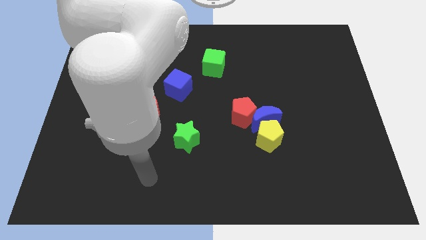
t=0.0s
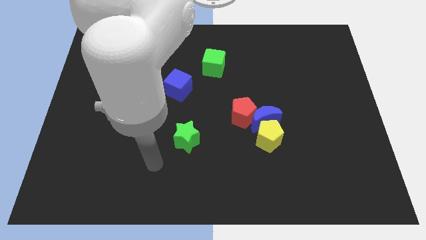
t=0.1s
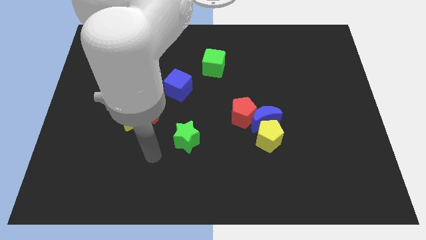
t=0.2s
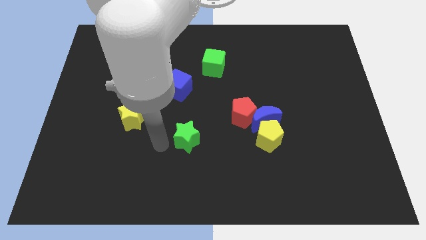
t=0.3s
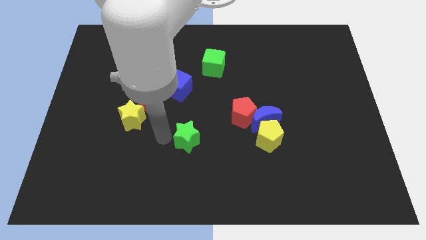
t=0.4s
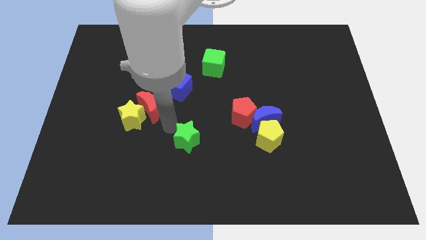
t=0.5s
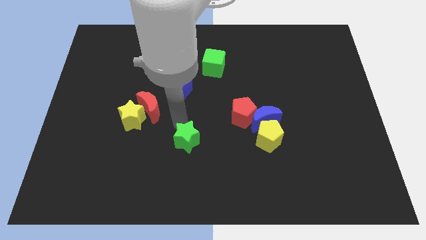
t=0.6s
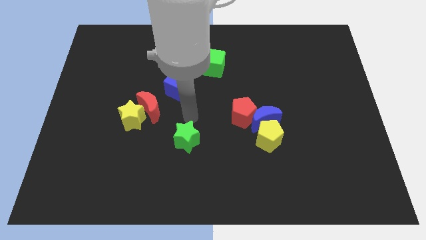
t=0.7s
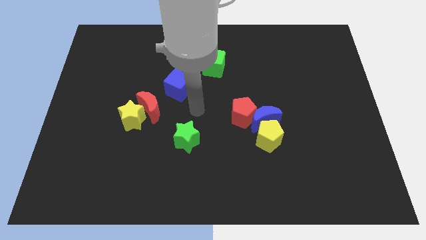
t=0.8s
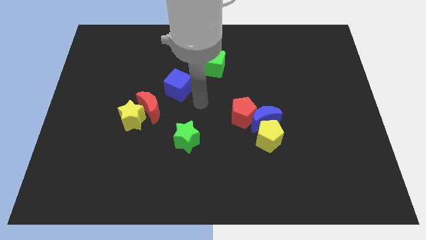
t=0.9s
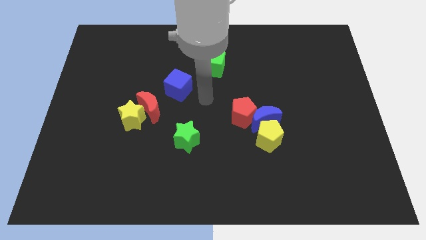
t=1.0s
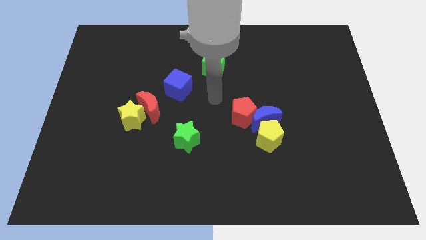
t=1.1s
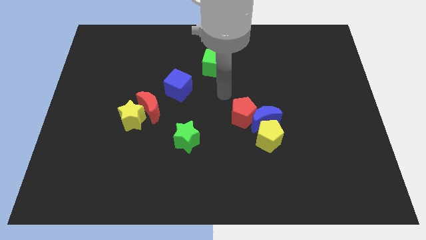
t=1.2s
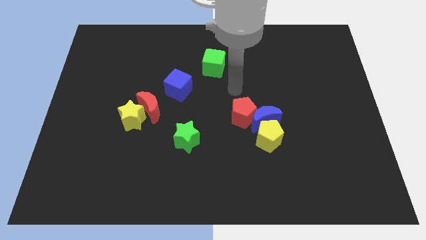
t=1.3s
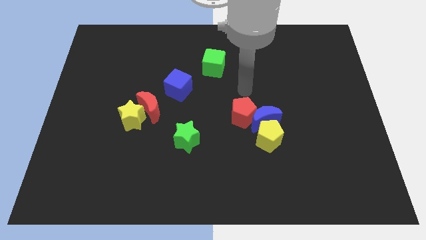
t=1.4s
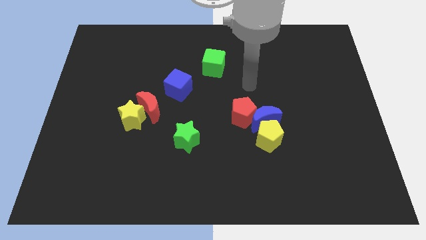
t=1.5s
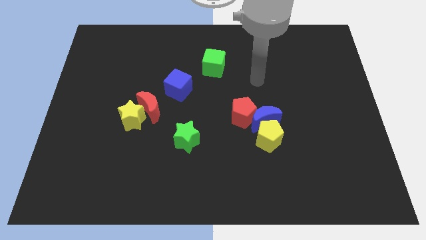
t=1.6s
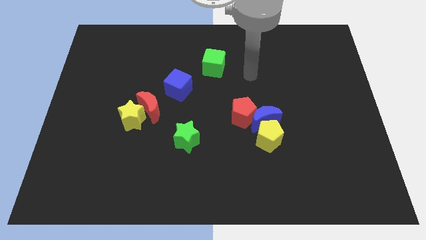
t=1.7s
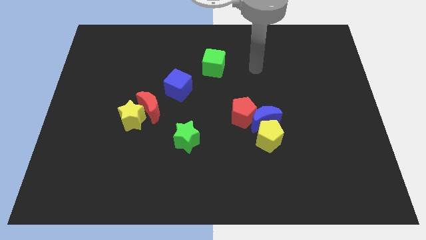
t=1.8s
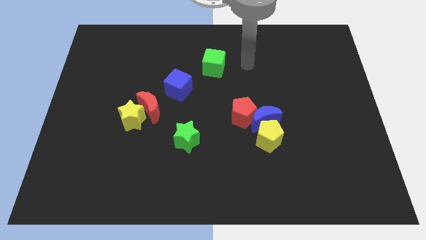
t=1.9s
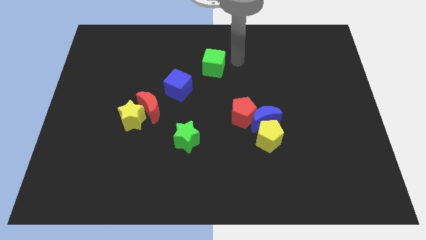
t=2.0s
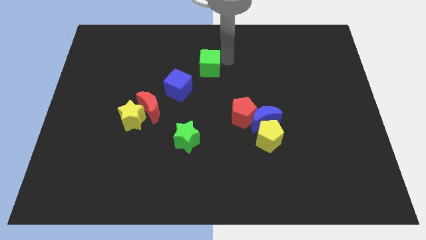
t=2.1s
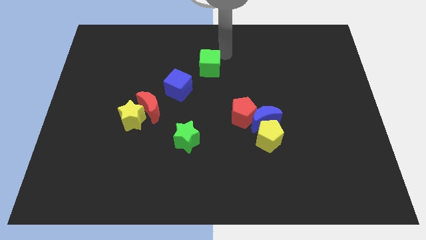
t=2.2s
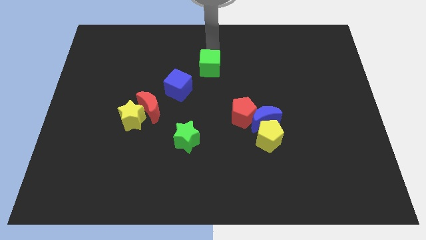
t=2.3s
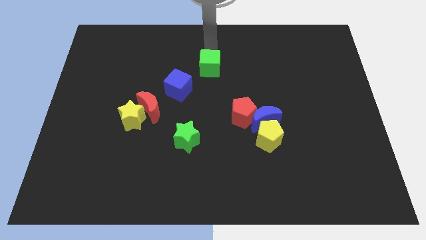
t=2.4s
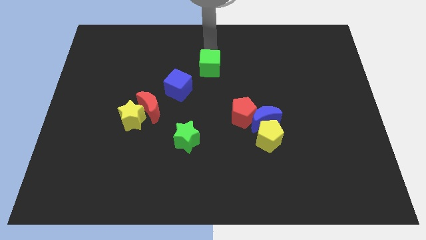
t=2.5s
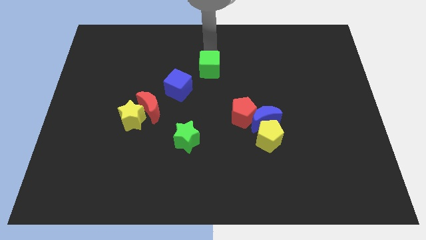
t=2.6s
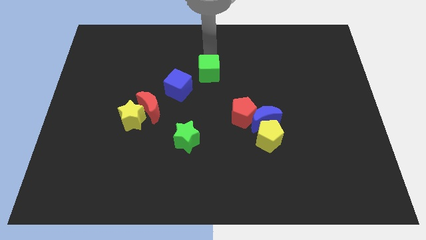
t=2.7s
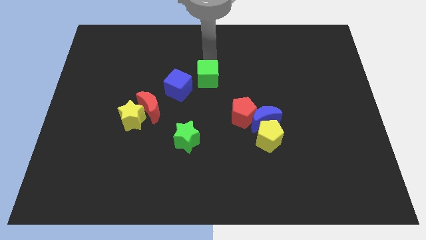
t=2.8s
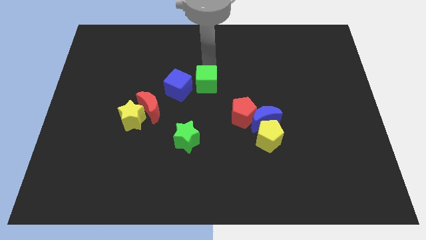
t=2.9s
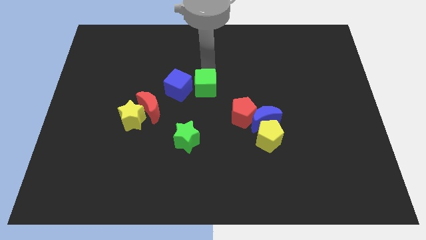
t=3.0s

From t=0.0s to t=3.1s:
move the green cube a bit downwards

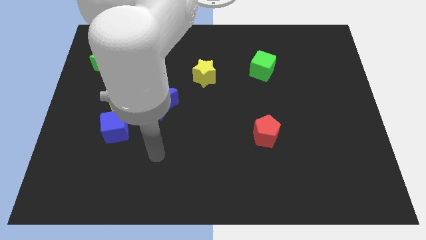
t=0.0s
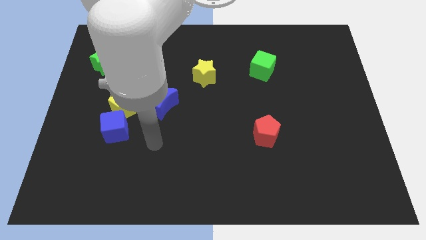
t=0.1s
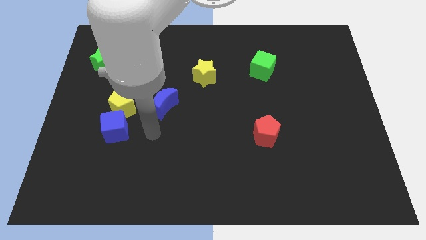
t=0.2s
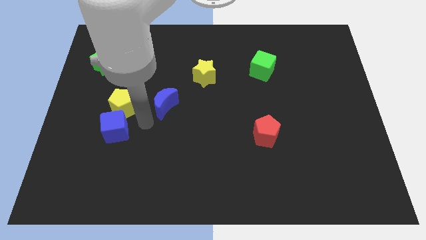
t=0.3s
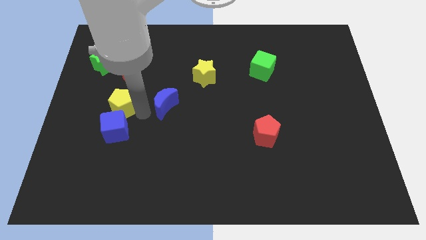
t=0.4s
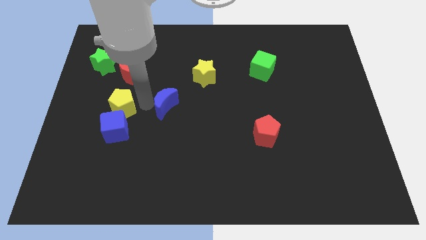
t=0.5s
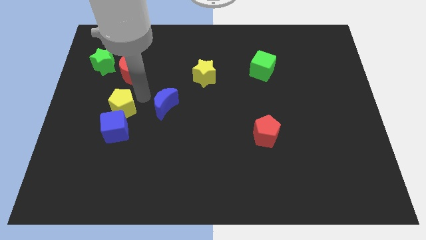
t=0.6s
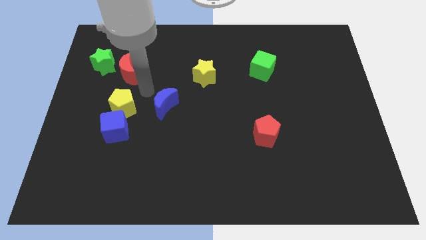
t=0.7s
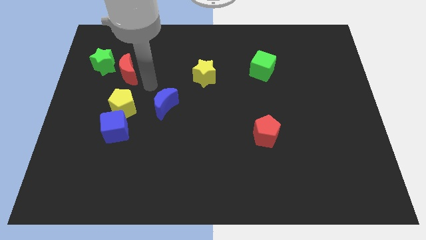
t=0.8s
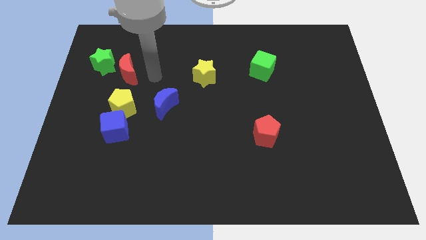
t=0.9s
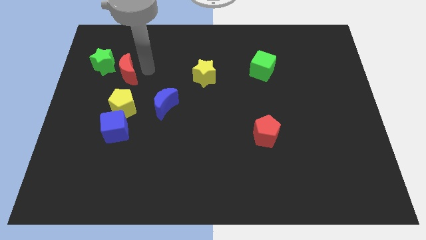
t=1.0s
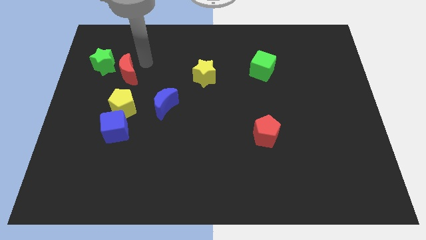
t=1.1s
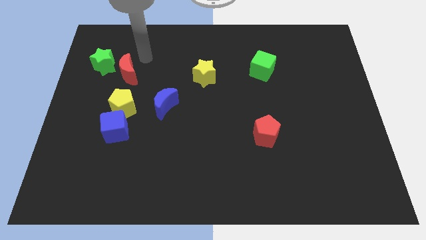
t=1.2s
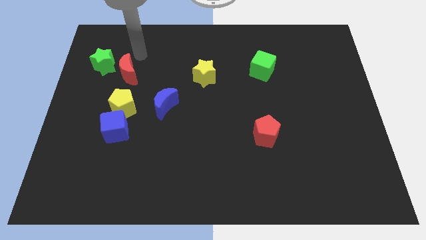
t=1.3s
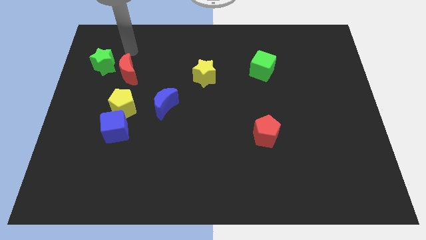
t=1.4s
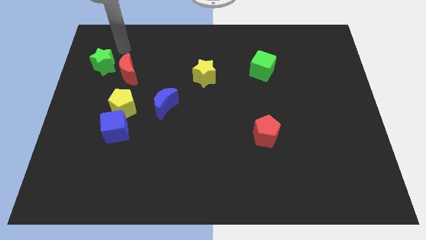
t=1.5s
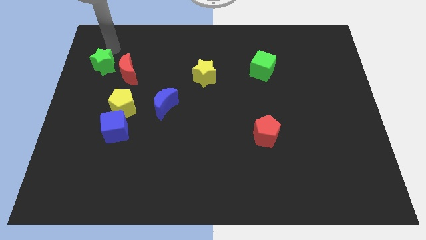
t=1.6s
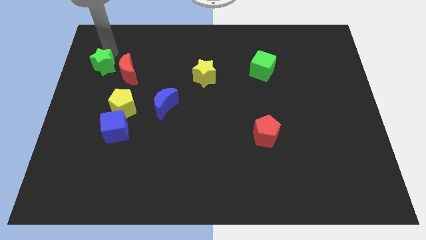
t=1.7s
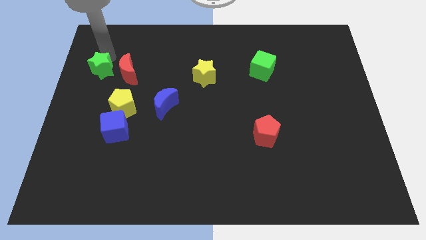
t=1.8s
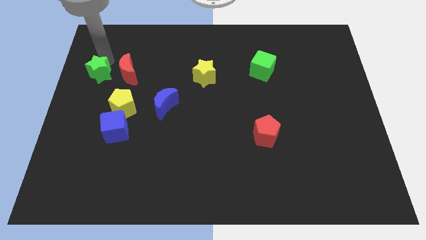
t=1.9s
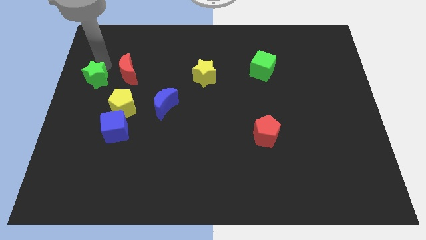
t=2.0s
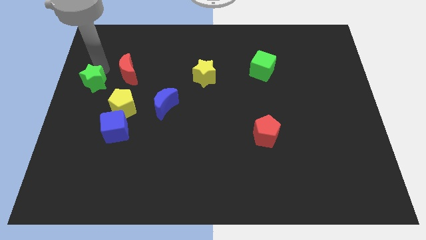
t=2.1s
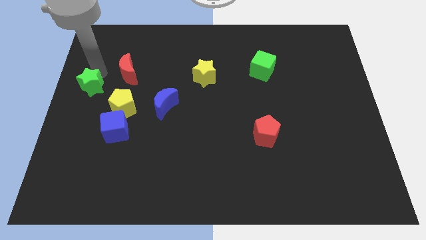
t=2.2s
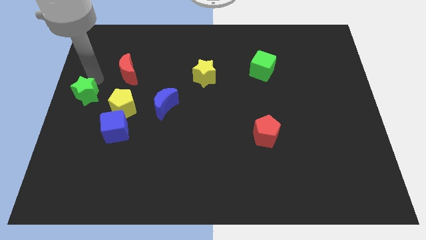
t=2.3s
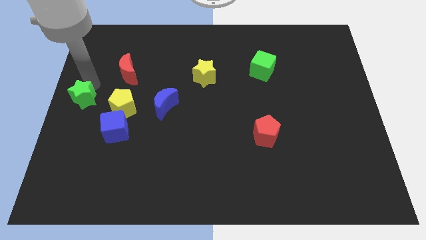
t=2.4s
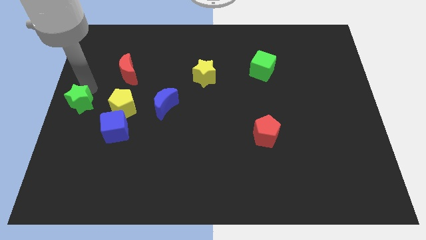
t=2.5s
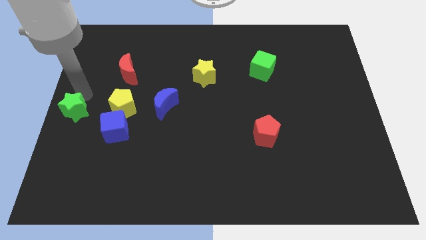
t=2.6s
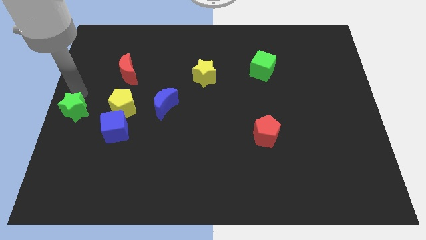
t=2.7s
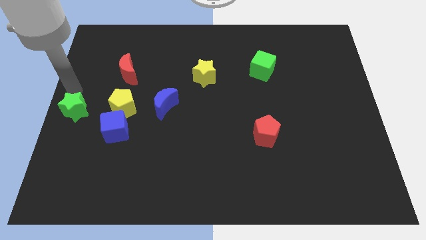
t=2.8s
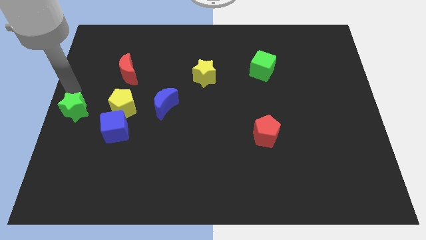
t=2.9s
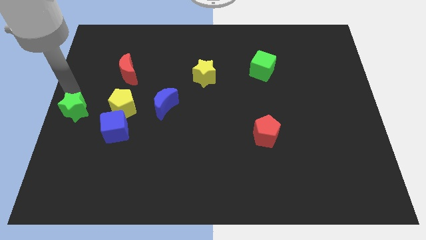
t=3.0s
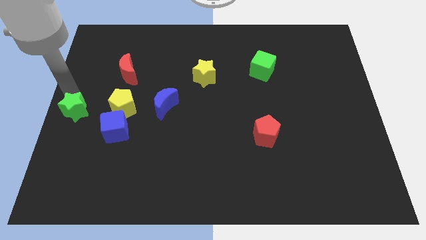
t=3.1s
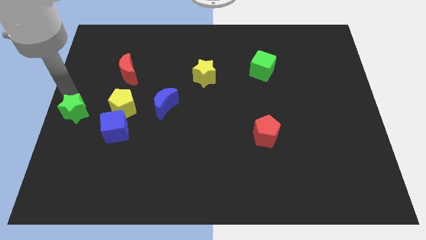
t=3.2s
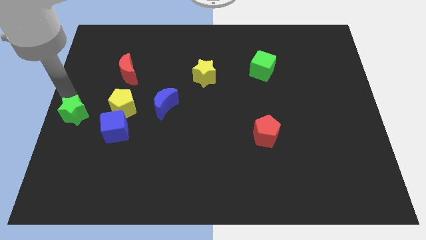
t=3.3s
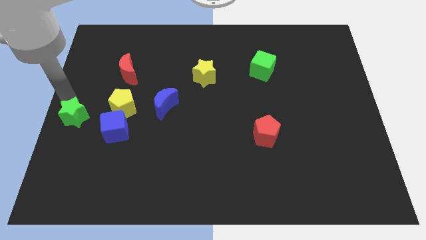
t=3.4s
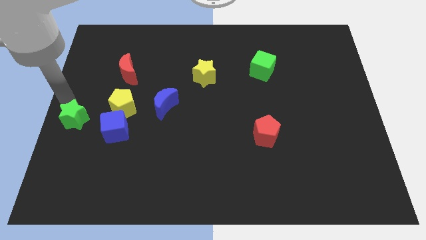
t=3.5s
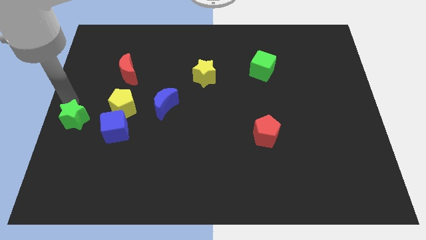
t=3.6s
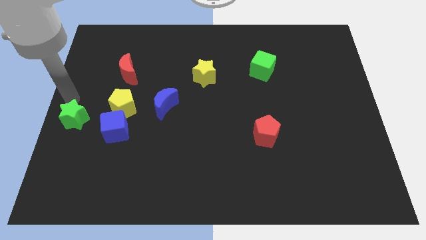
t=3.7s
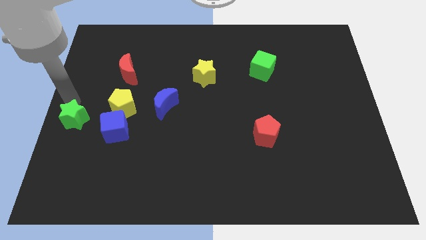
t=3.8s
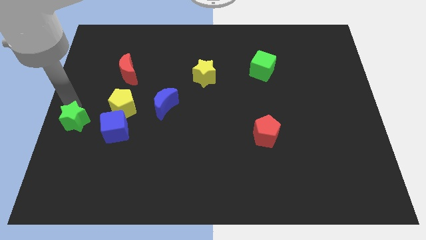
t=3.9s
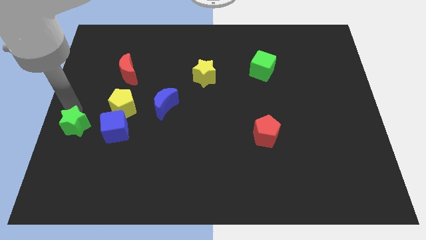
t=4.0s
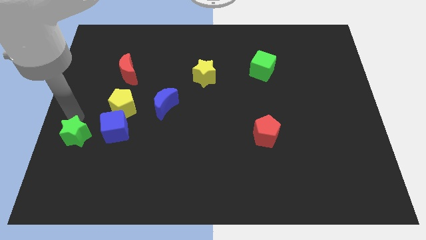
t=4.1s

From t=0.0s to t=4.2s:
slide the green star downwards

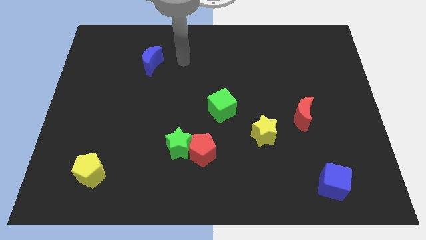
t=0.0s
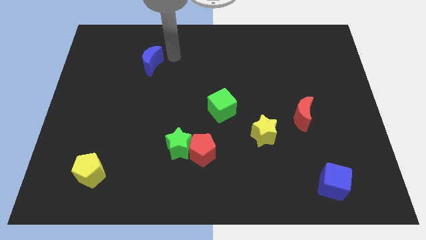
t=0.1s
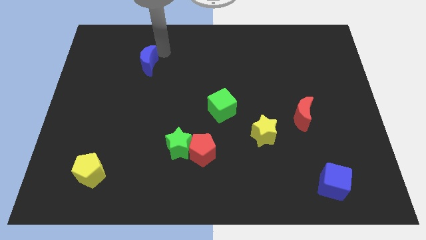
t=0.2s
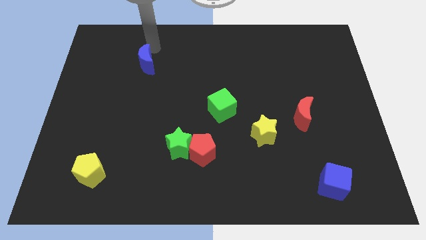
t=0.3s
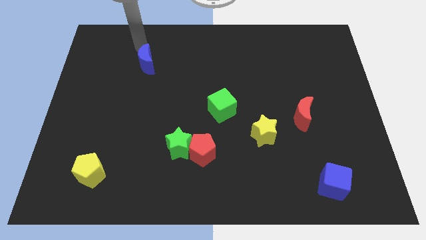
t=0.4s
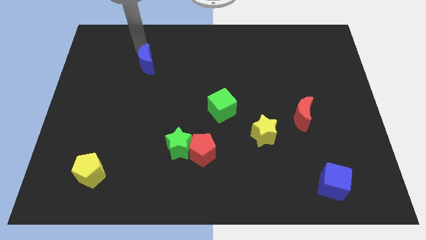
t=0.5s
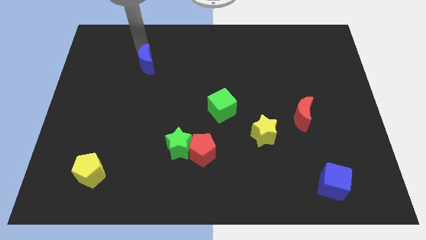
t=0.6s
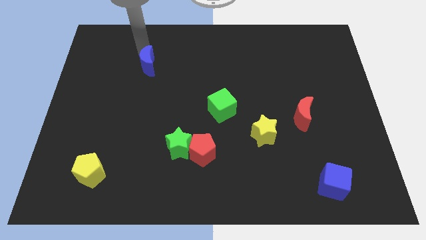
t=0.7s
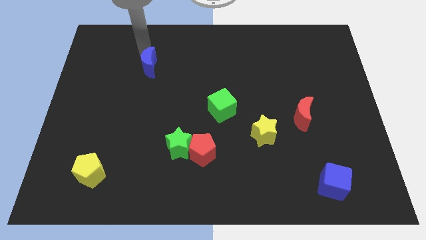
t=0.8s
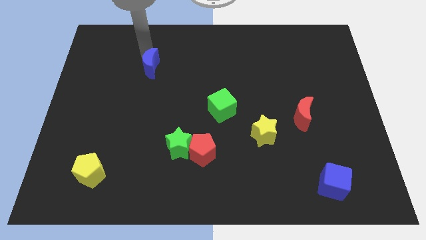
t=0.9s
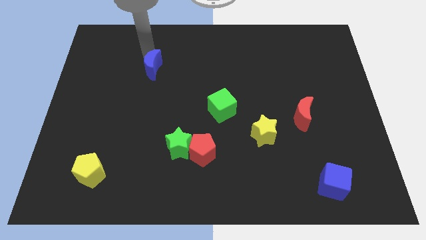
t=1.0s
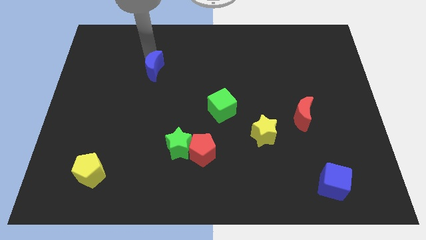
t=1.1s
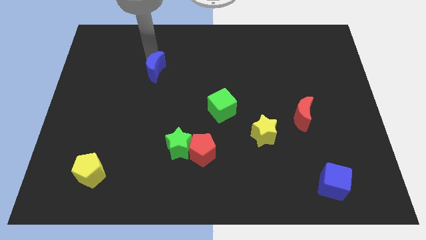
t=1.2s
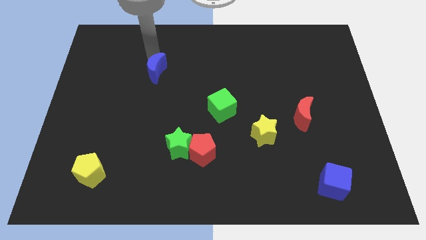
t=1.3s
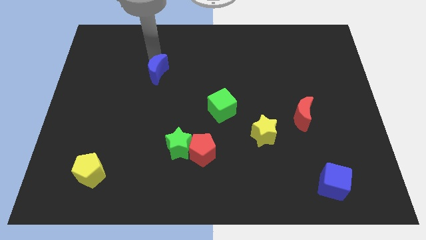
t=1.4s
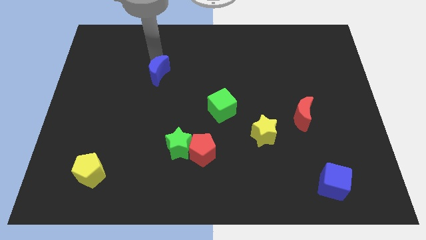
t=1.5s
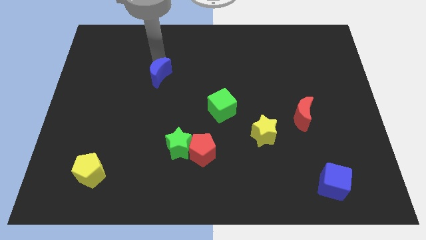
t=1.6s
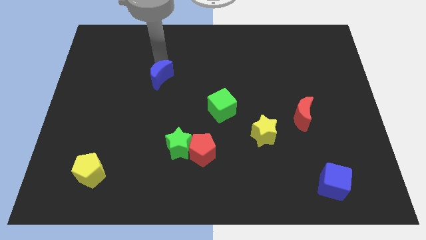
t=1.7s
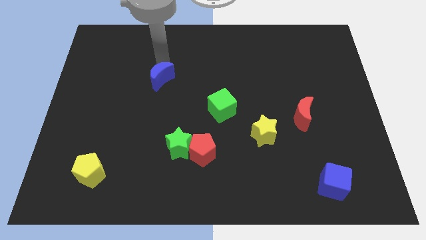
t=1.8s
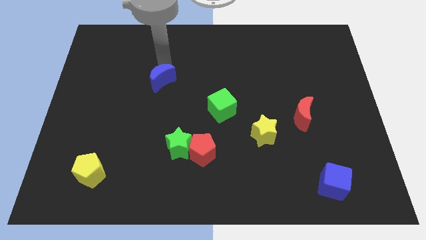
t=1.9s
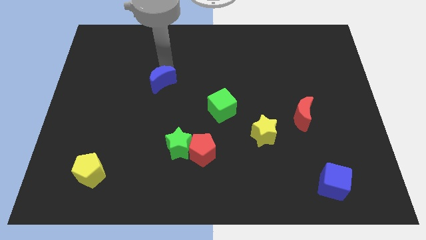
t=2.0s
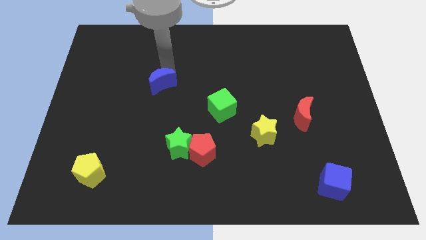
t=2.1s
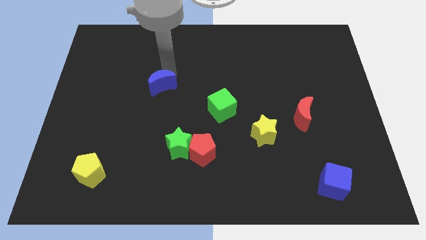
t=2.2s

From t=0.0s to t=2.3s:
push the blue moon downwards slightly
